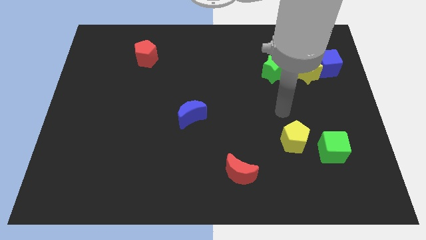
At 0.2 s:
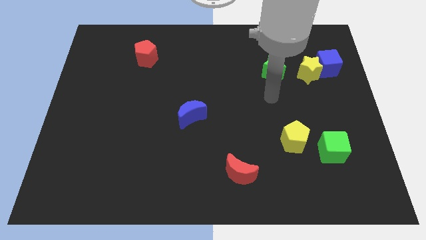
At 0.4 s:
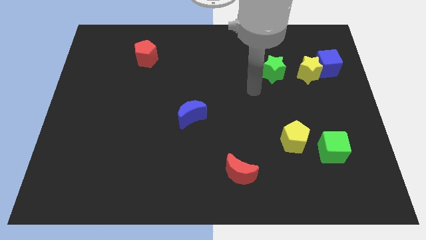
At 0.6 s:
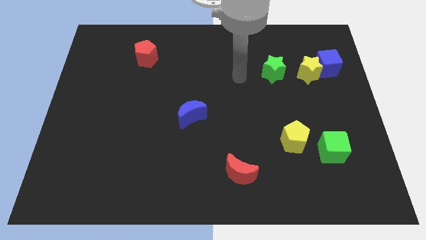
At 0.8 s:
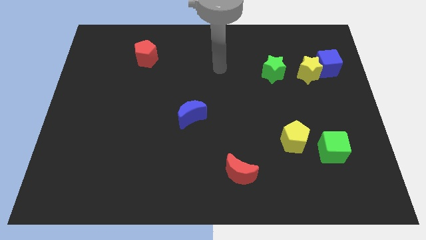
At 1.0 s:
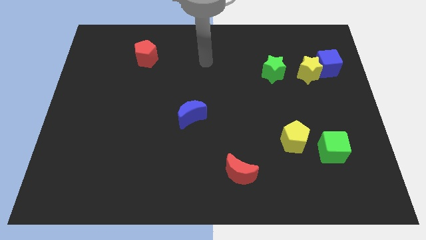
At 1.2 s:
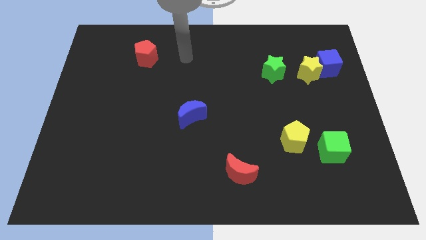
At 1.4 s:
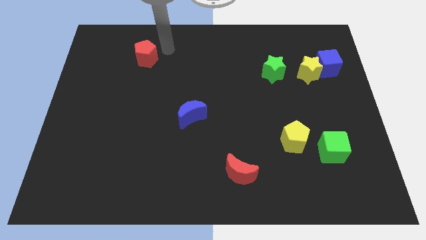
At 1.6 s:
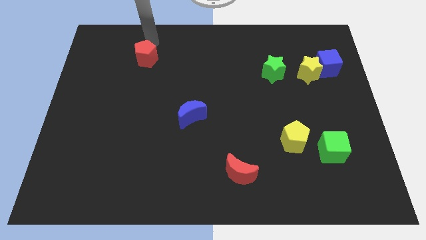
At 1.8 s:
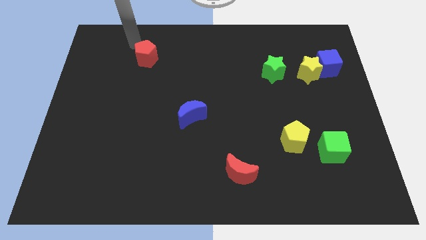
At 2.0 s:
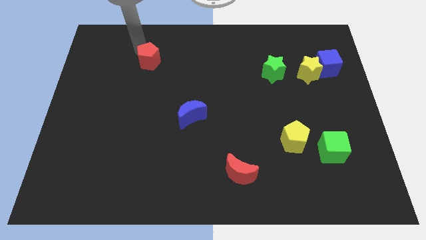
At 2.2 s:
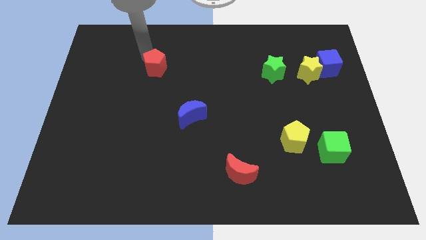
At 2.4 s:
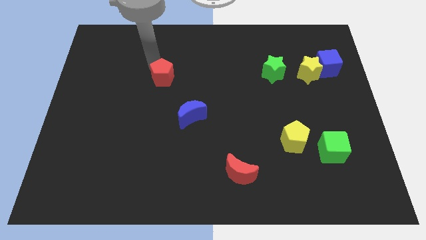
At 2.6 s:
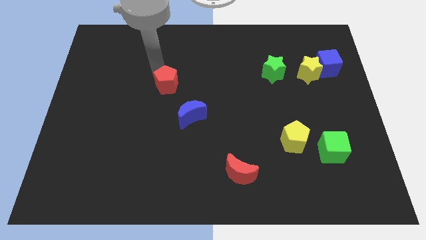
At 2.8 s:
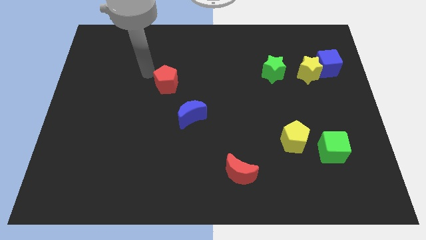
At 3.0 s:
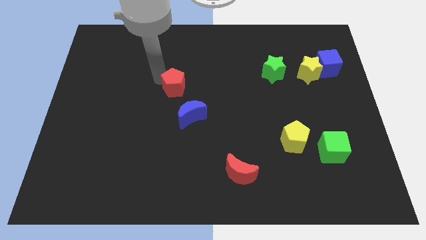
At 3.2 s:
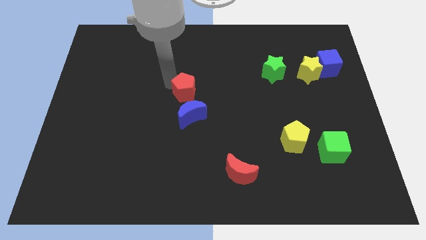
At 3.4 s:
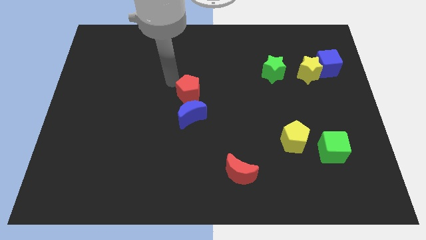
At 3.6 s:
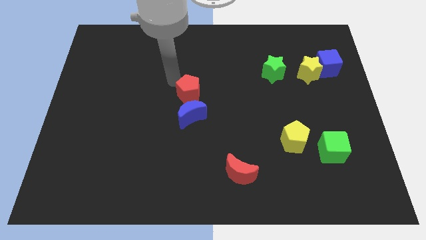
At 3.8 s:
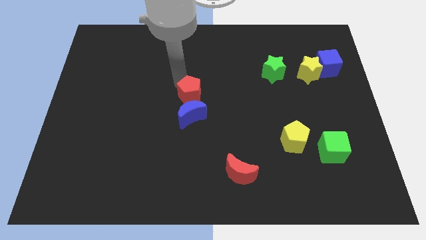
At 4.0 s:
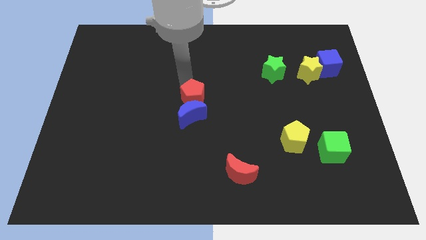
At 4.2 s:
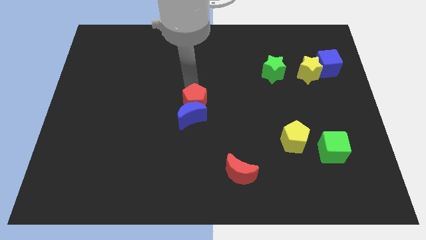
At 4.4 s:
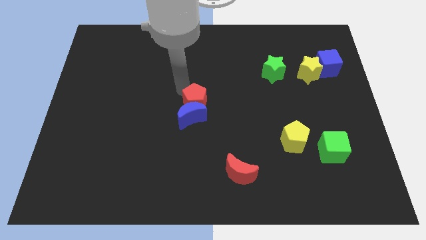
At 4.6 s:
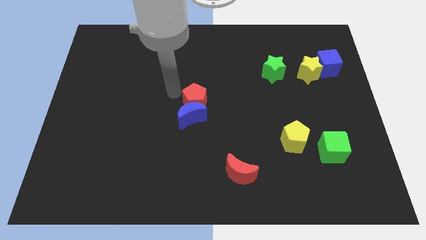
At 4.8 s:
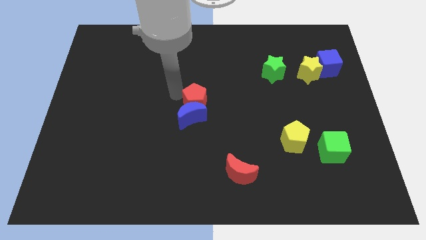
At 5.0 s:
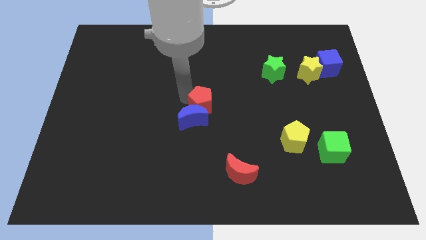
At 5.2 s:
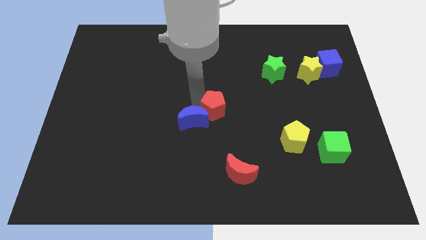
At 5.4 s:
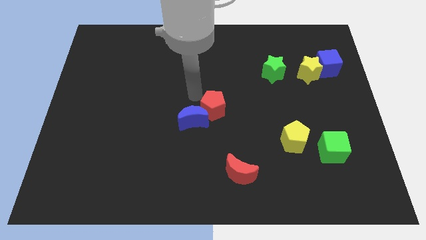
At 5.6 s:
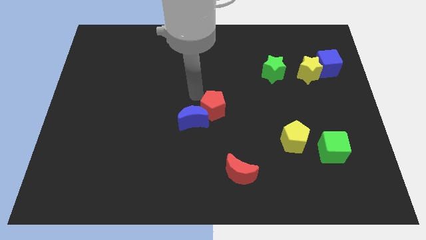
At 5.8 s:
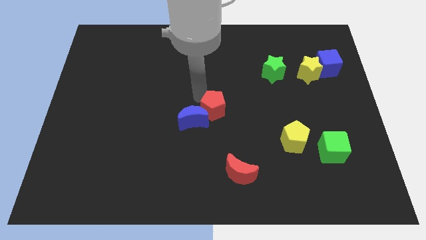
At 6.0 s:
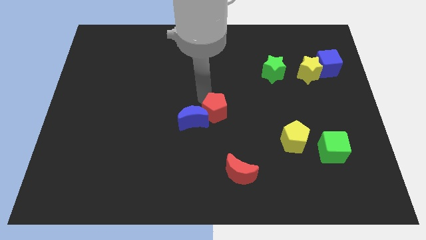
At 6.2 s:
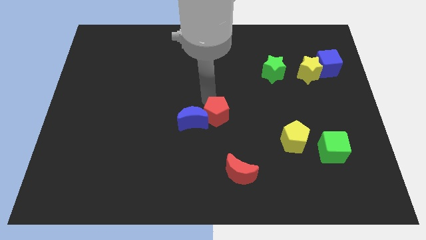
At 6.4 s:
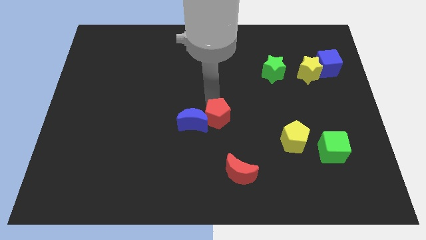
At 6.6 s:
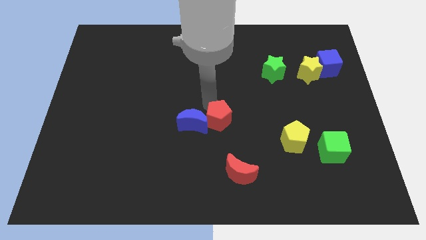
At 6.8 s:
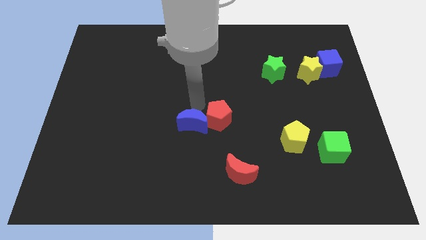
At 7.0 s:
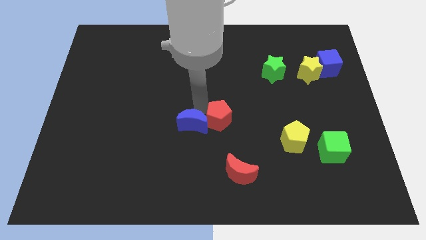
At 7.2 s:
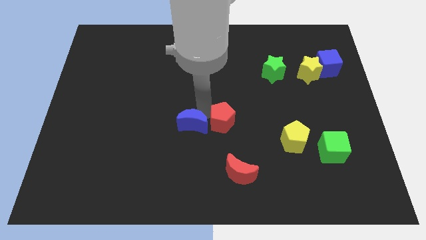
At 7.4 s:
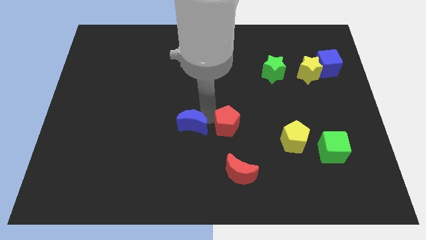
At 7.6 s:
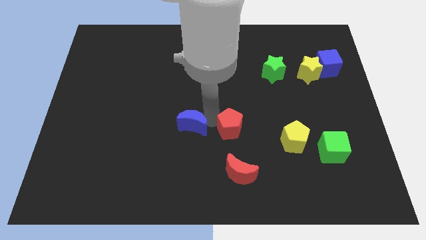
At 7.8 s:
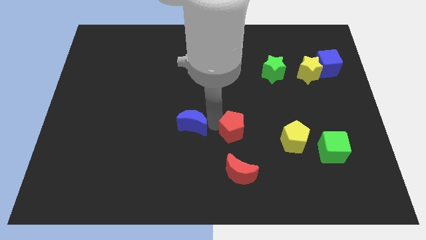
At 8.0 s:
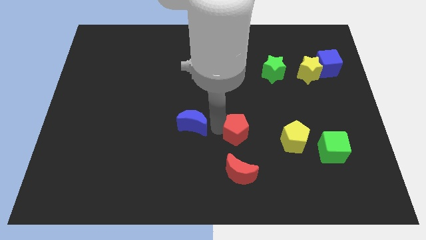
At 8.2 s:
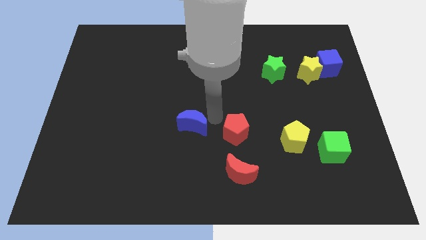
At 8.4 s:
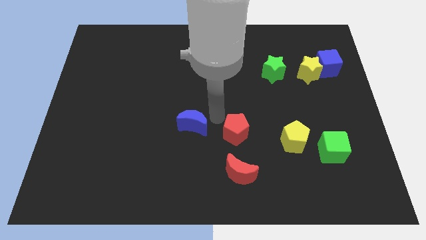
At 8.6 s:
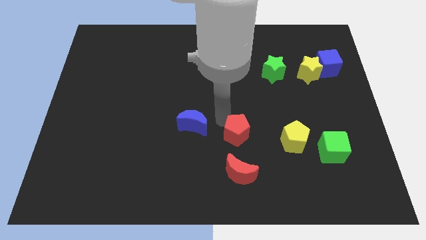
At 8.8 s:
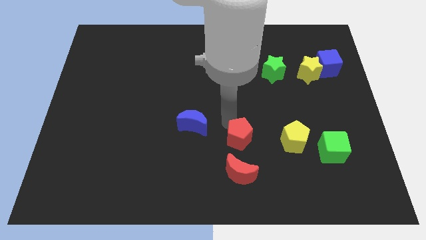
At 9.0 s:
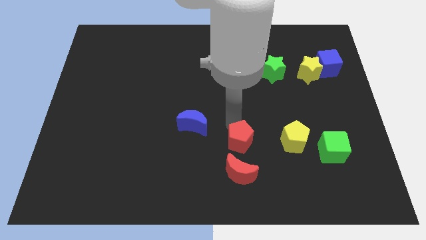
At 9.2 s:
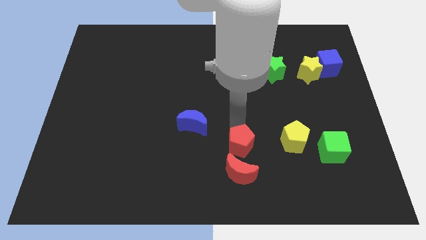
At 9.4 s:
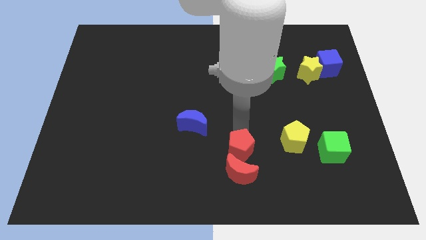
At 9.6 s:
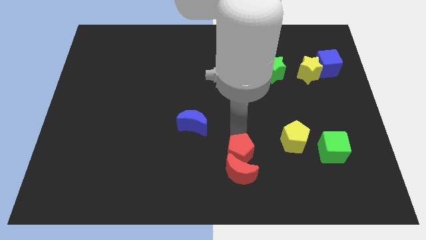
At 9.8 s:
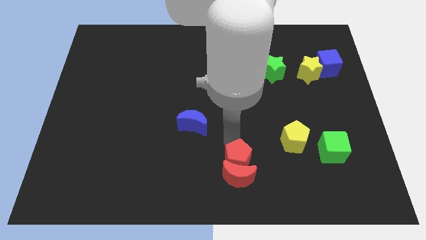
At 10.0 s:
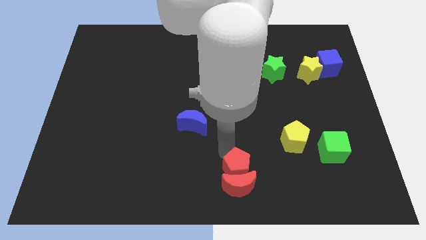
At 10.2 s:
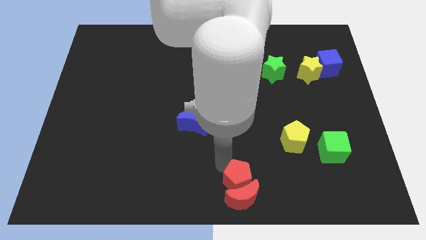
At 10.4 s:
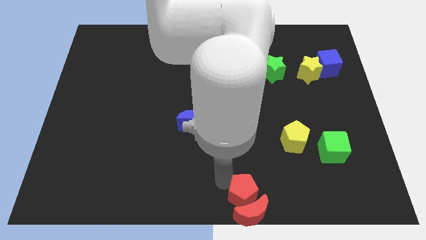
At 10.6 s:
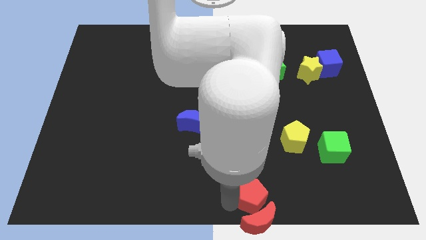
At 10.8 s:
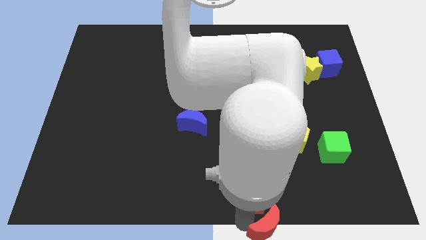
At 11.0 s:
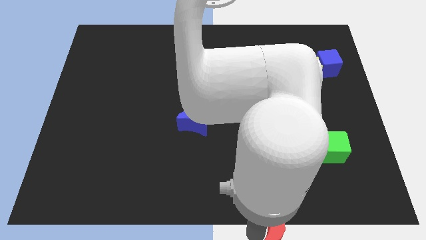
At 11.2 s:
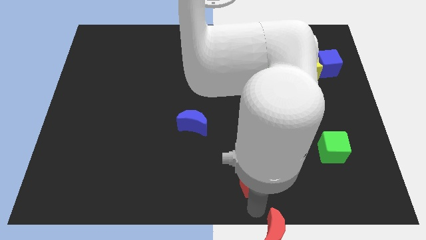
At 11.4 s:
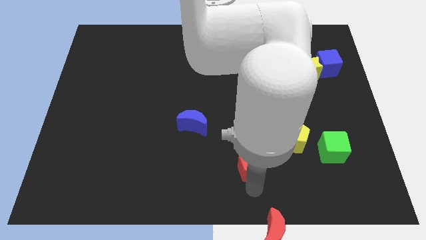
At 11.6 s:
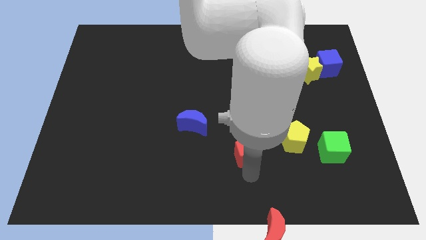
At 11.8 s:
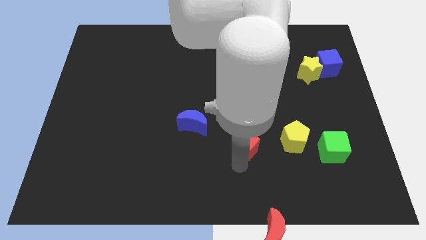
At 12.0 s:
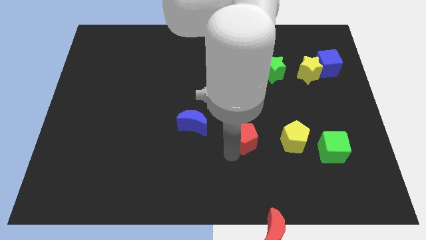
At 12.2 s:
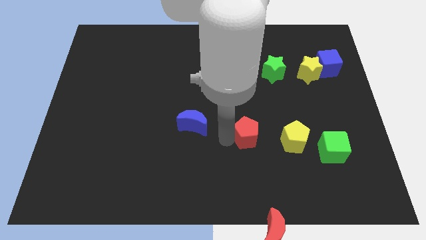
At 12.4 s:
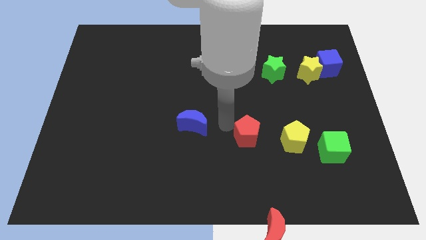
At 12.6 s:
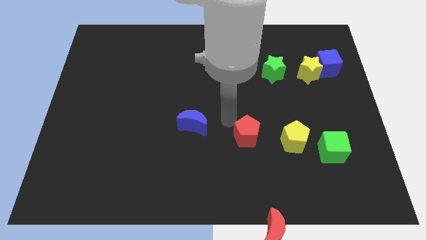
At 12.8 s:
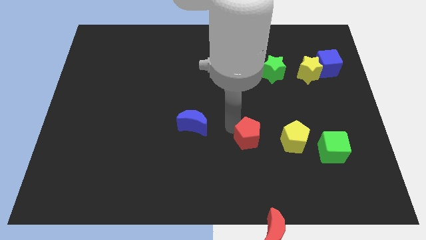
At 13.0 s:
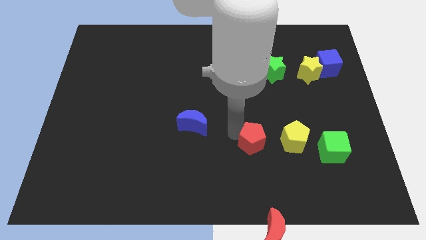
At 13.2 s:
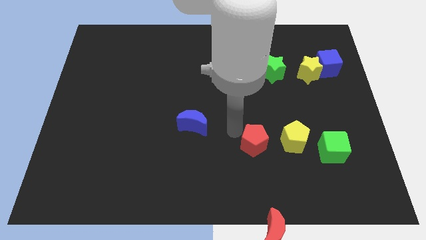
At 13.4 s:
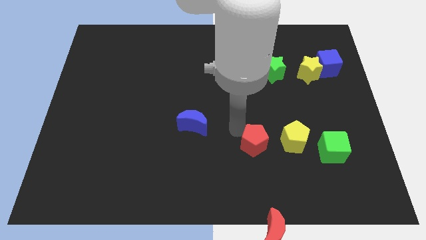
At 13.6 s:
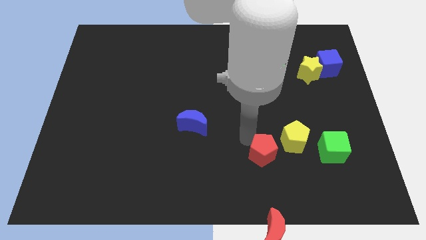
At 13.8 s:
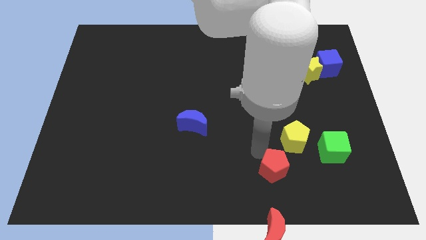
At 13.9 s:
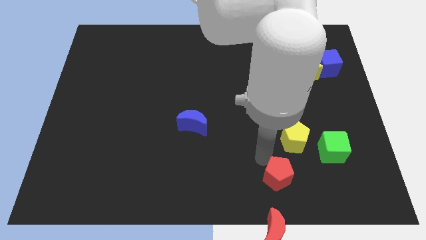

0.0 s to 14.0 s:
push the red pentagon to the bottom side of the yellow pentagon

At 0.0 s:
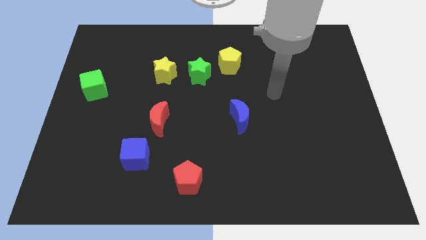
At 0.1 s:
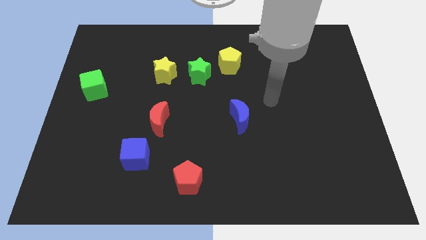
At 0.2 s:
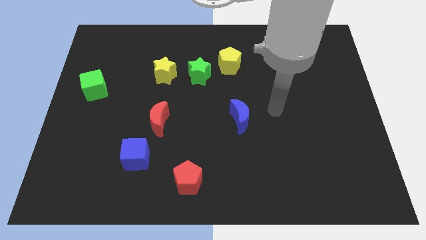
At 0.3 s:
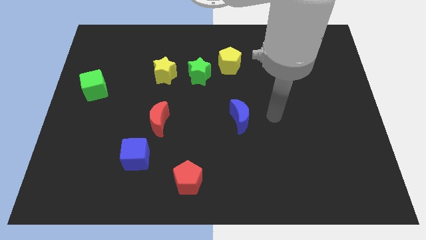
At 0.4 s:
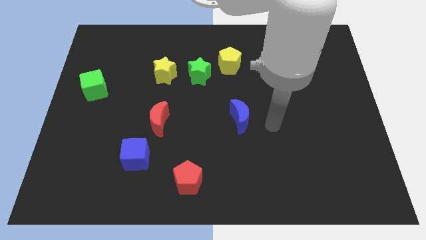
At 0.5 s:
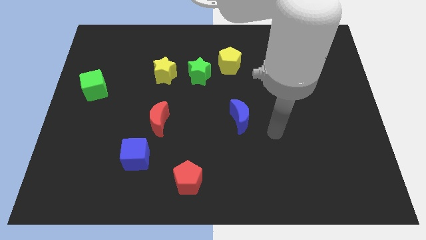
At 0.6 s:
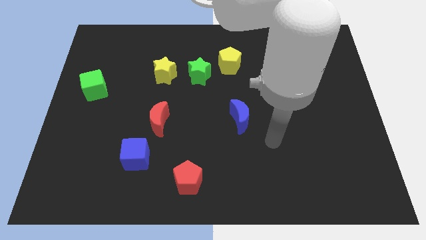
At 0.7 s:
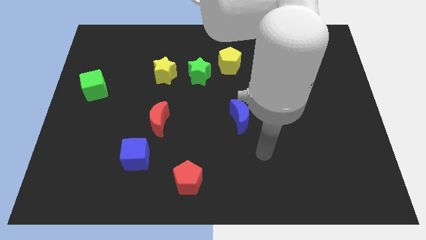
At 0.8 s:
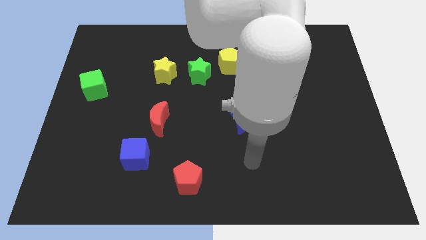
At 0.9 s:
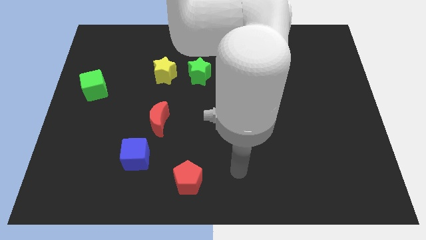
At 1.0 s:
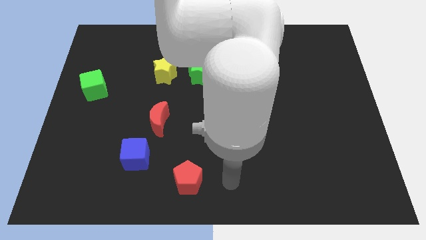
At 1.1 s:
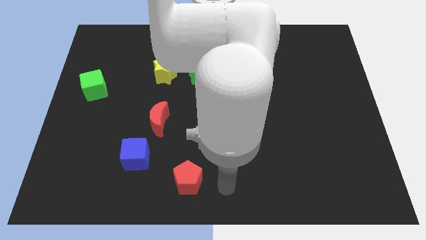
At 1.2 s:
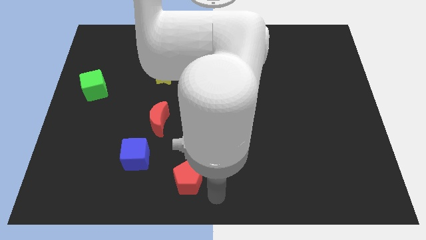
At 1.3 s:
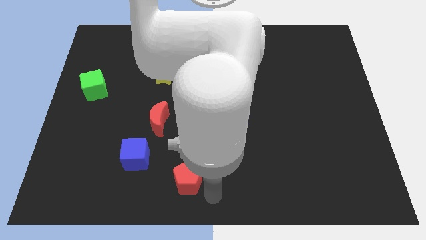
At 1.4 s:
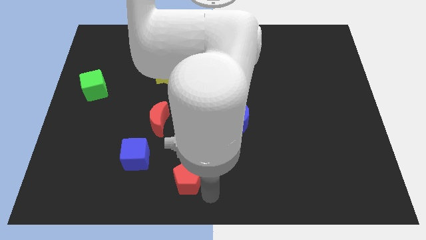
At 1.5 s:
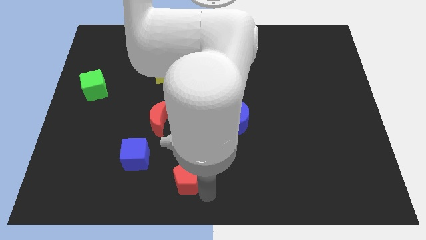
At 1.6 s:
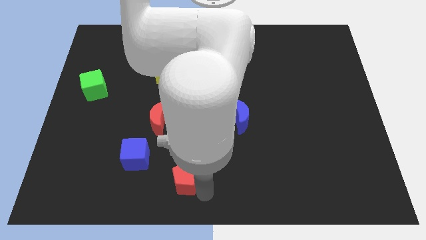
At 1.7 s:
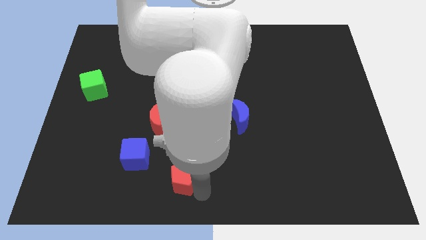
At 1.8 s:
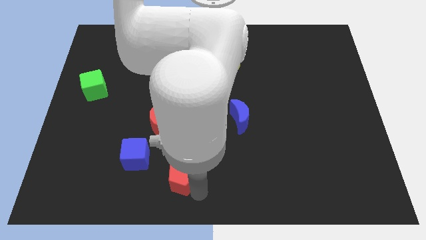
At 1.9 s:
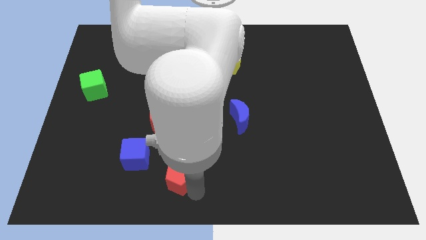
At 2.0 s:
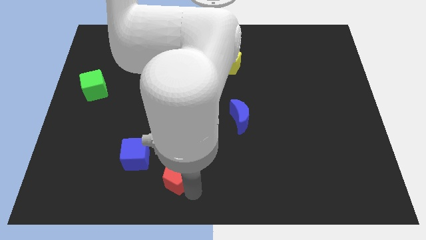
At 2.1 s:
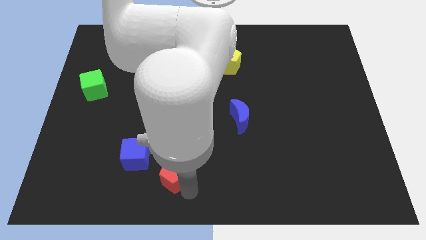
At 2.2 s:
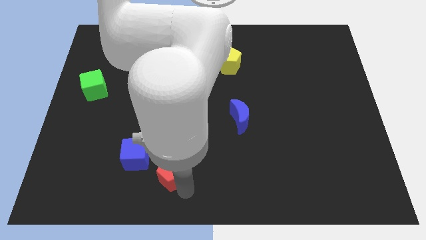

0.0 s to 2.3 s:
slide the red pentagon to the bottom of the red moon
